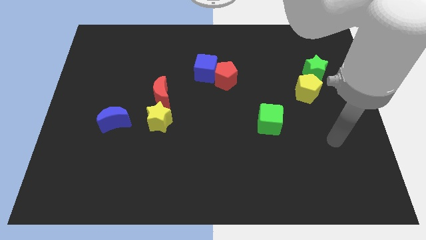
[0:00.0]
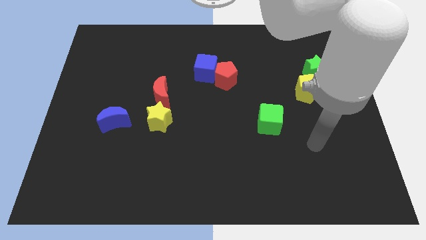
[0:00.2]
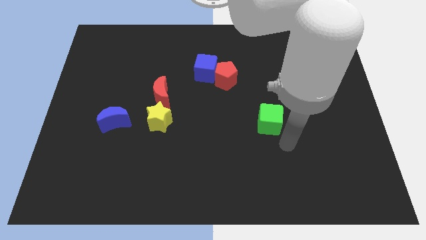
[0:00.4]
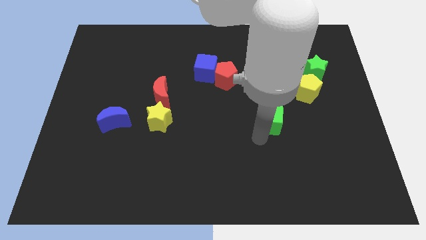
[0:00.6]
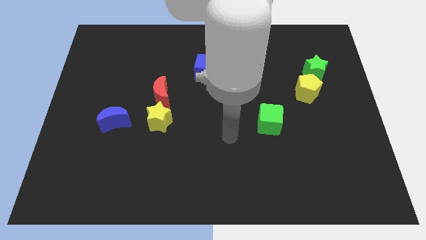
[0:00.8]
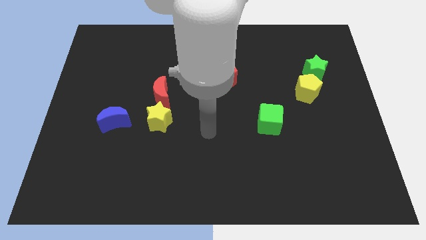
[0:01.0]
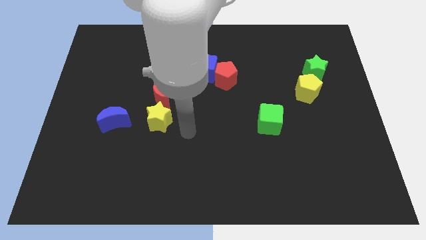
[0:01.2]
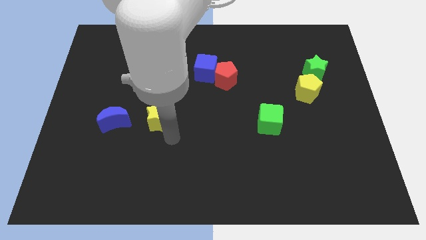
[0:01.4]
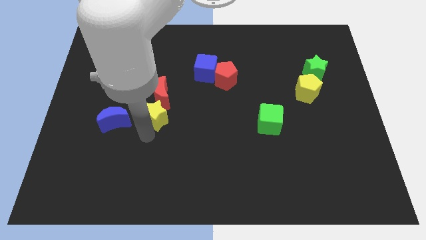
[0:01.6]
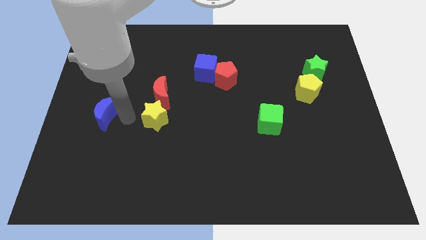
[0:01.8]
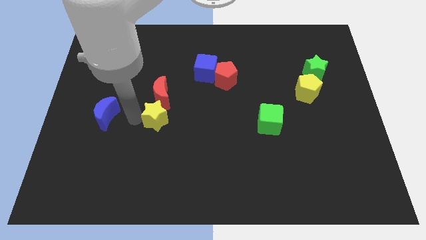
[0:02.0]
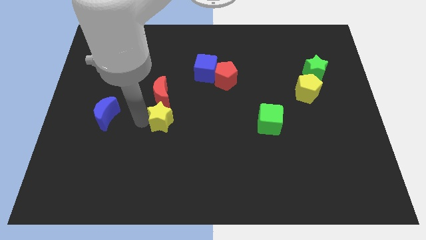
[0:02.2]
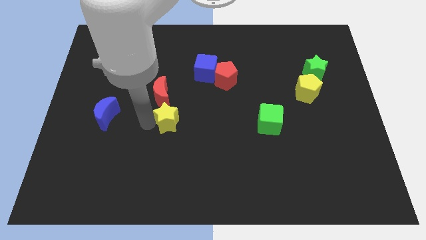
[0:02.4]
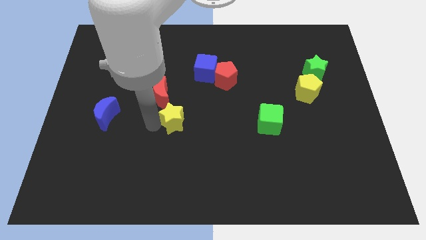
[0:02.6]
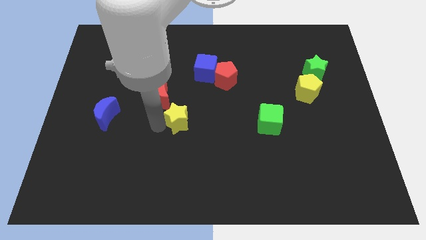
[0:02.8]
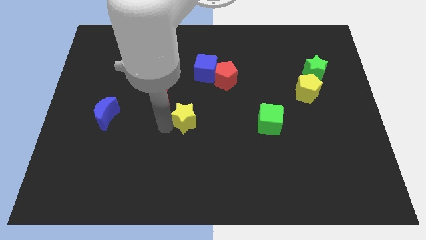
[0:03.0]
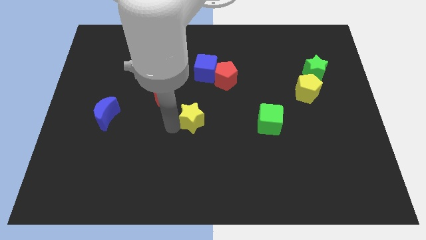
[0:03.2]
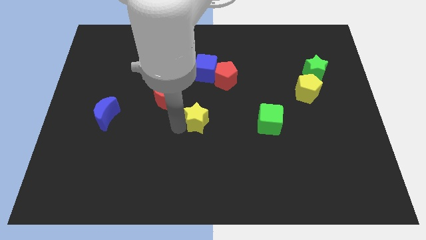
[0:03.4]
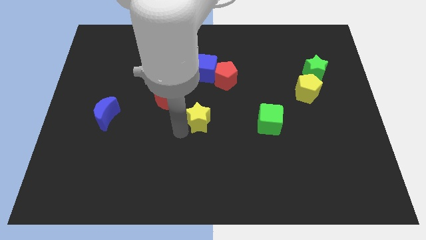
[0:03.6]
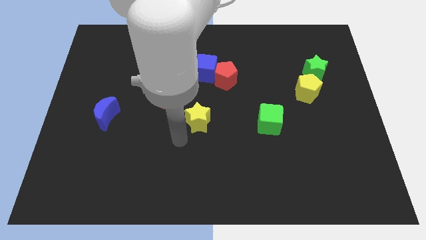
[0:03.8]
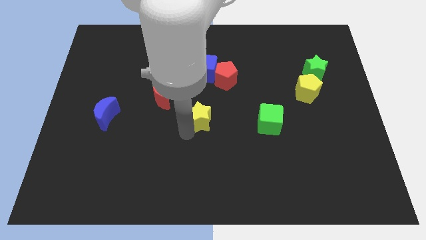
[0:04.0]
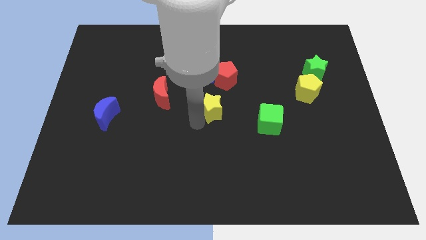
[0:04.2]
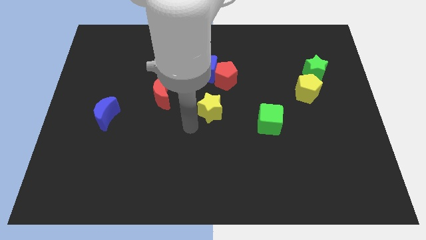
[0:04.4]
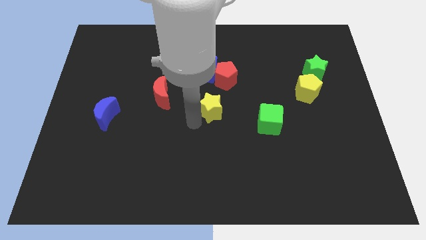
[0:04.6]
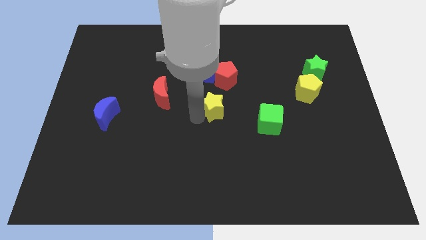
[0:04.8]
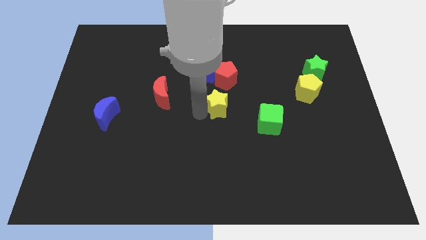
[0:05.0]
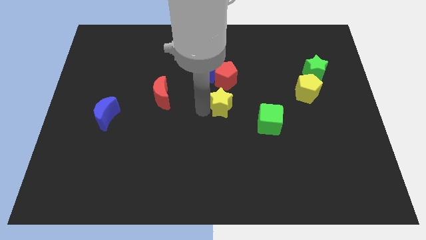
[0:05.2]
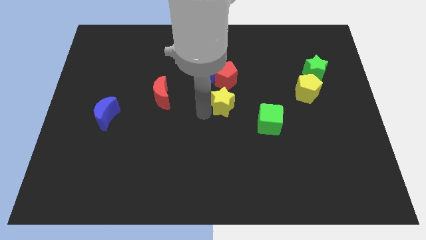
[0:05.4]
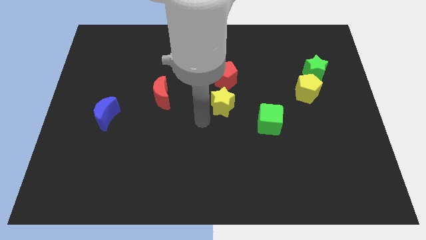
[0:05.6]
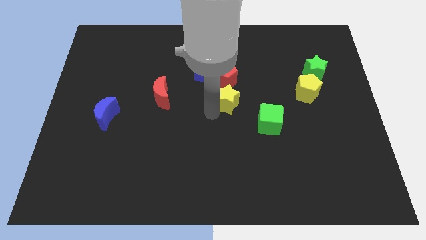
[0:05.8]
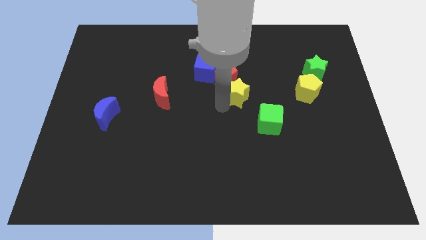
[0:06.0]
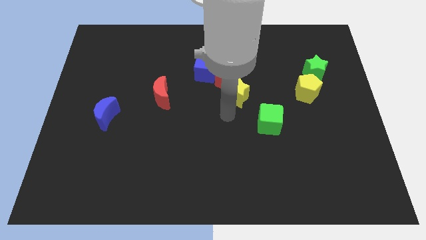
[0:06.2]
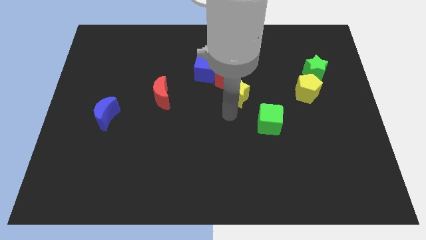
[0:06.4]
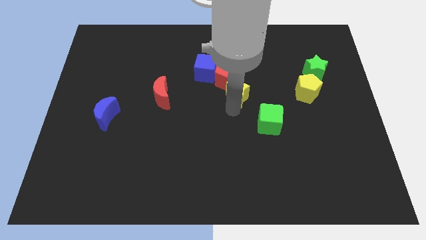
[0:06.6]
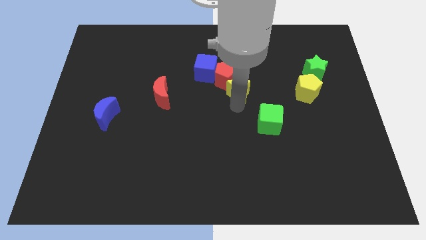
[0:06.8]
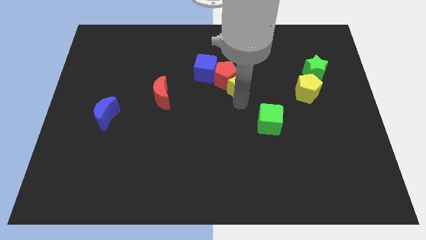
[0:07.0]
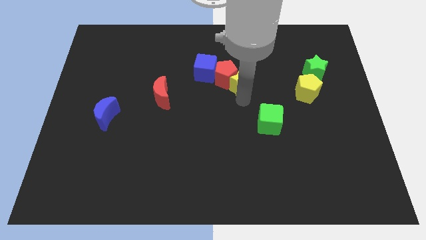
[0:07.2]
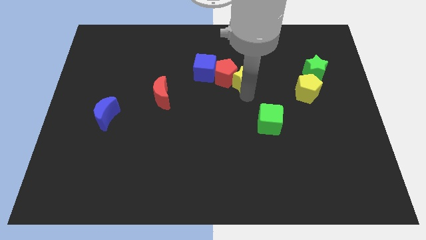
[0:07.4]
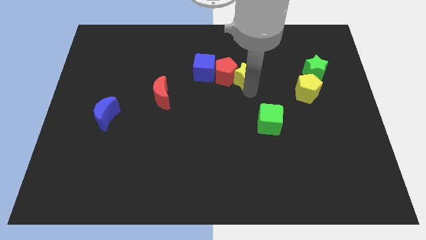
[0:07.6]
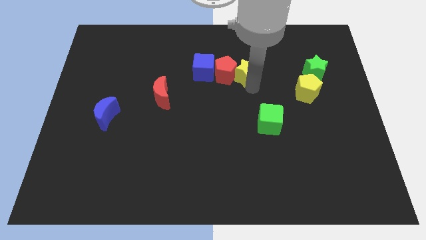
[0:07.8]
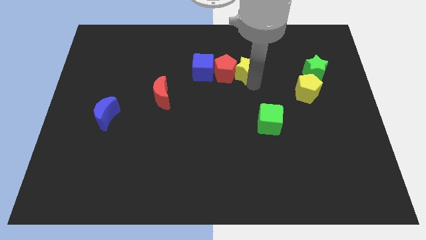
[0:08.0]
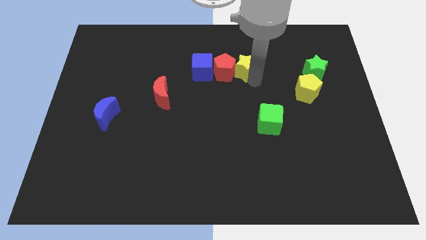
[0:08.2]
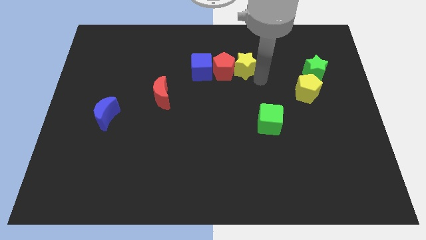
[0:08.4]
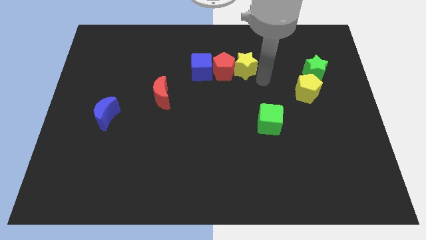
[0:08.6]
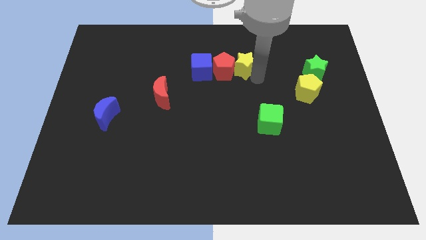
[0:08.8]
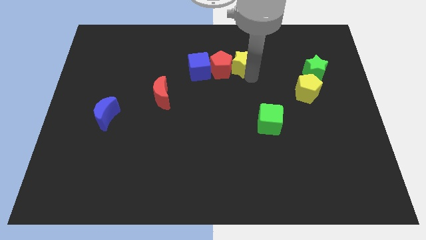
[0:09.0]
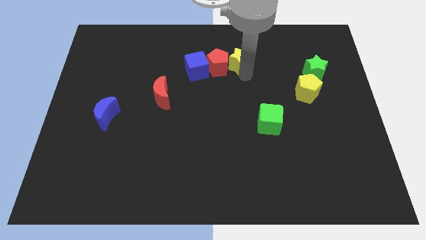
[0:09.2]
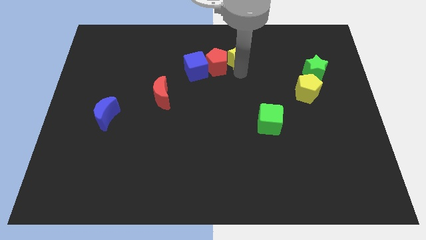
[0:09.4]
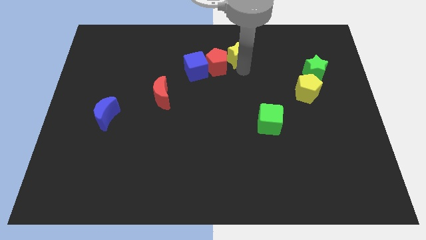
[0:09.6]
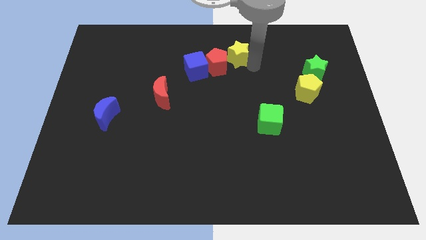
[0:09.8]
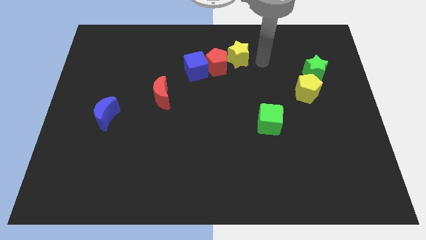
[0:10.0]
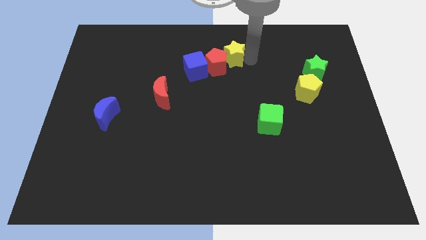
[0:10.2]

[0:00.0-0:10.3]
put the yellow star diagonally up and to the right of the blue cube

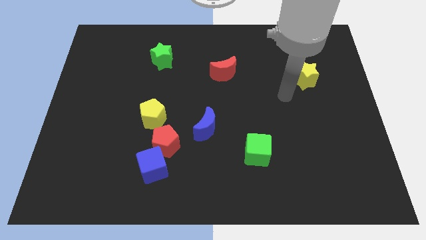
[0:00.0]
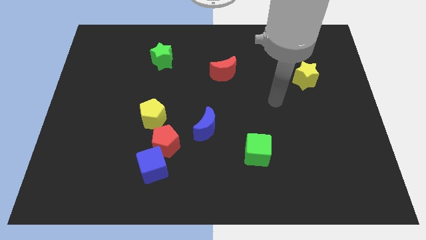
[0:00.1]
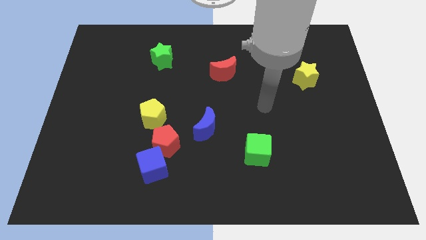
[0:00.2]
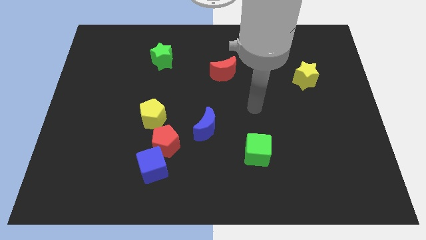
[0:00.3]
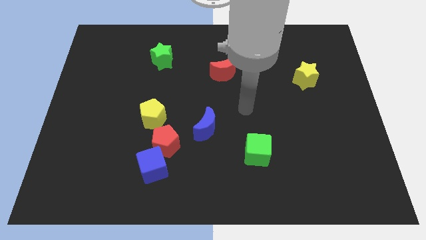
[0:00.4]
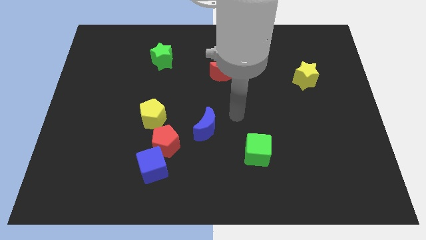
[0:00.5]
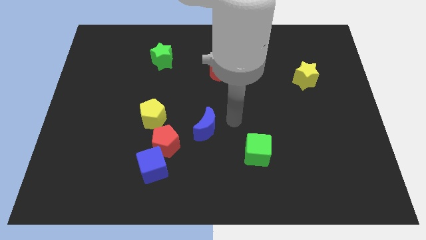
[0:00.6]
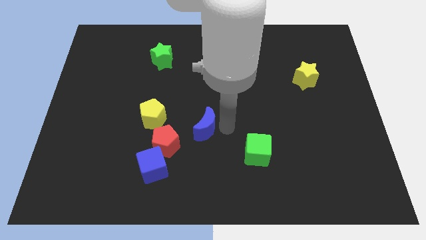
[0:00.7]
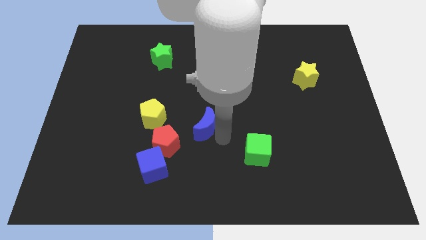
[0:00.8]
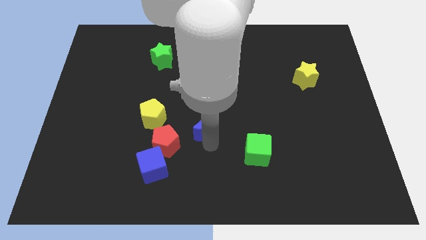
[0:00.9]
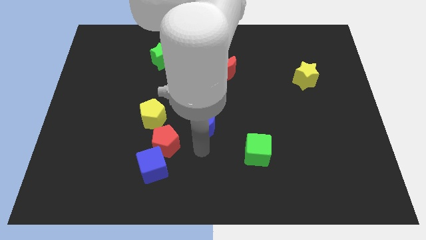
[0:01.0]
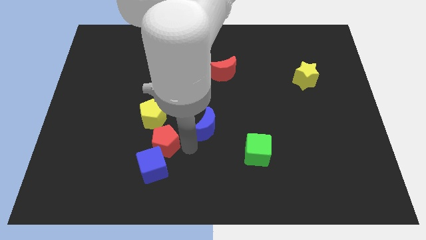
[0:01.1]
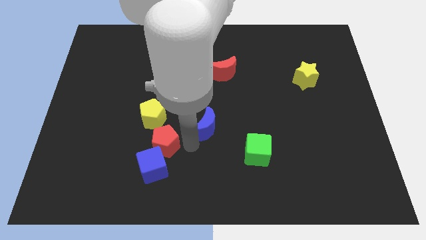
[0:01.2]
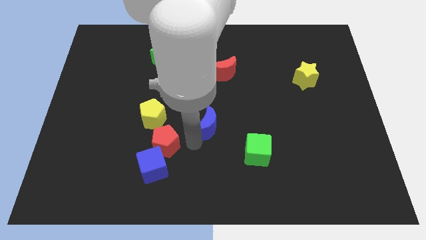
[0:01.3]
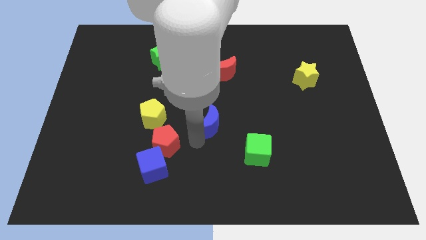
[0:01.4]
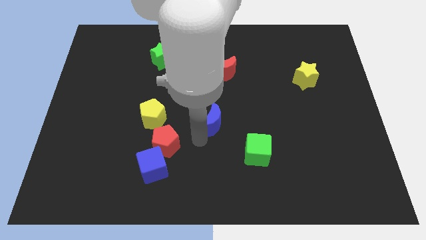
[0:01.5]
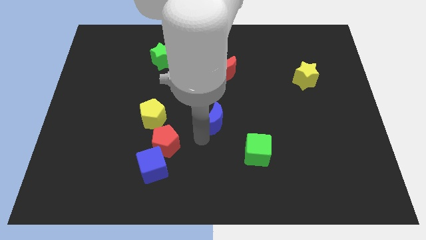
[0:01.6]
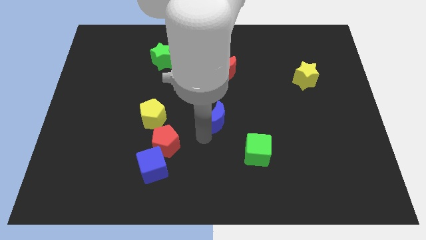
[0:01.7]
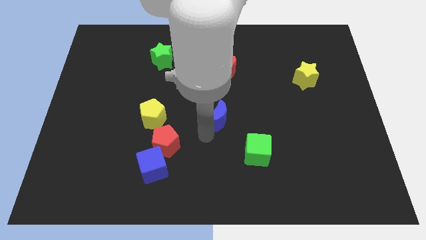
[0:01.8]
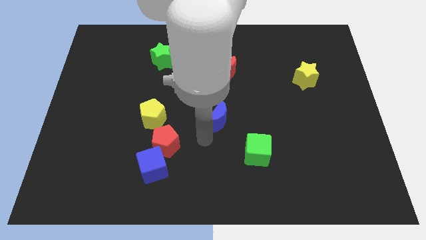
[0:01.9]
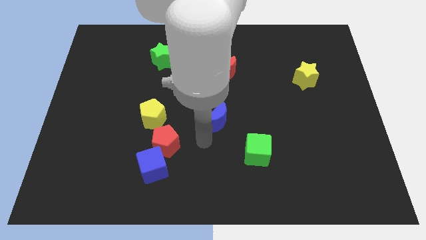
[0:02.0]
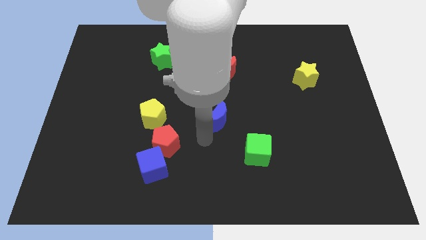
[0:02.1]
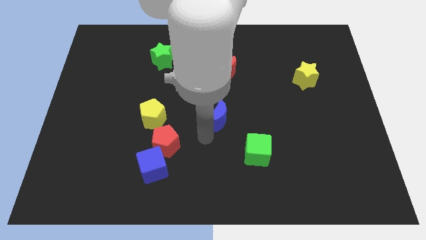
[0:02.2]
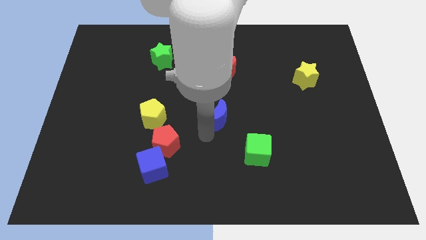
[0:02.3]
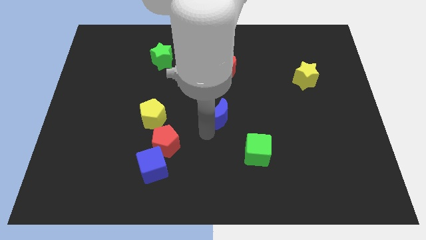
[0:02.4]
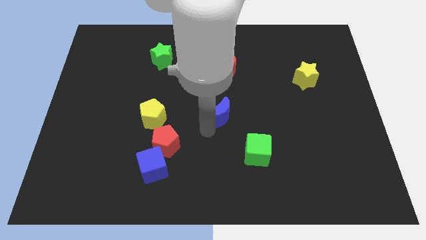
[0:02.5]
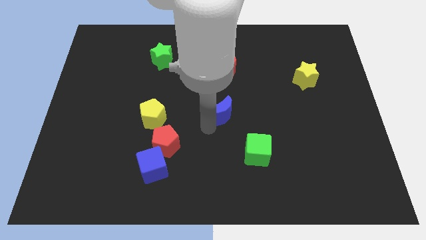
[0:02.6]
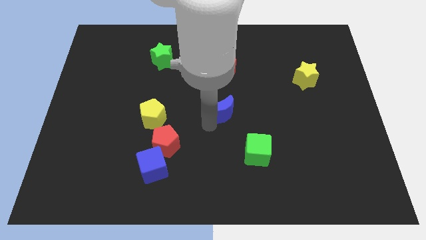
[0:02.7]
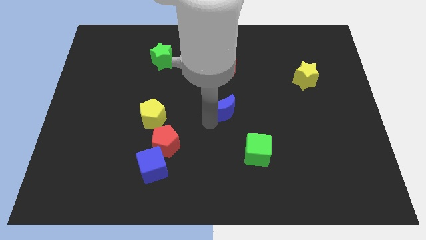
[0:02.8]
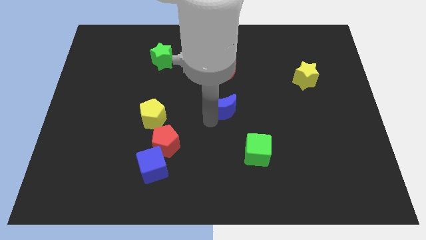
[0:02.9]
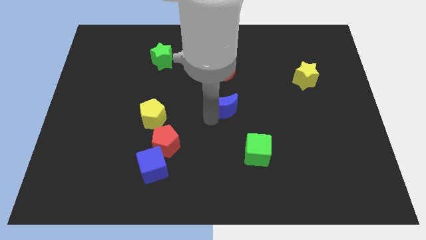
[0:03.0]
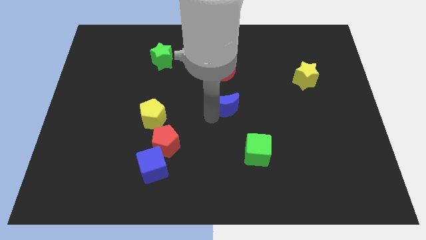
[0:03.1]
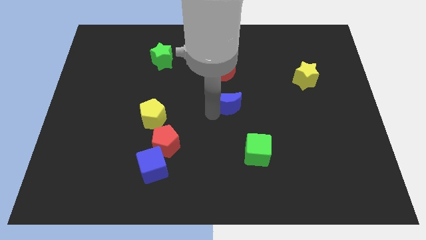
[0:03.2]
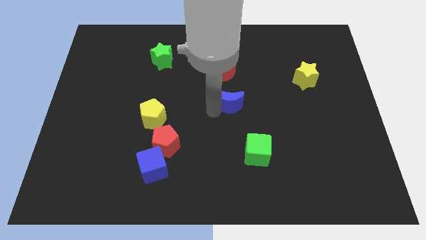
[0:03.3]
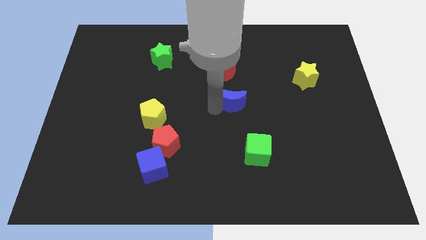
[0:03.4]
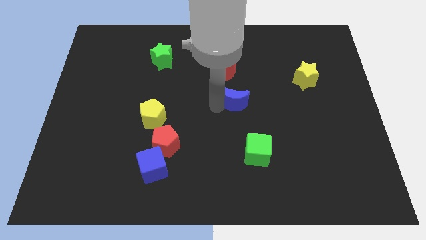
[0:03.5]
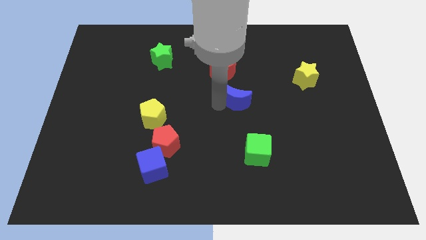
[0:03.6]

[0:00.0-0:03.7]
push the blue moon to the bottom right of the red moon
